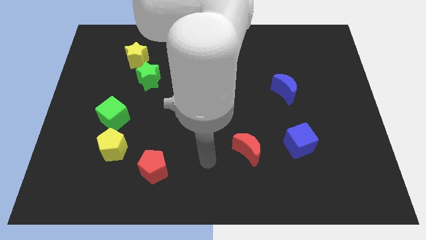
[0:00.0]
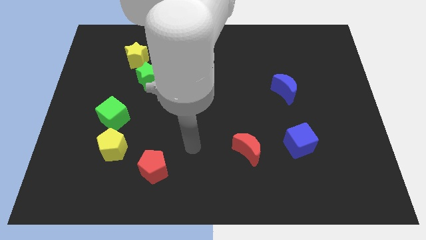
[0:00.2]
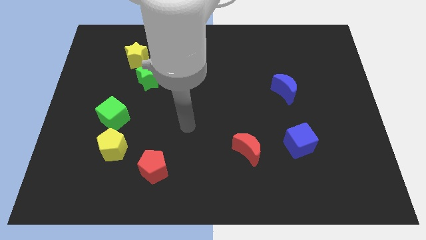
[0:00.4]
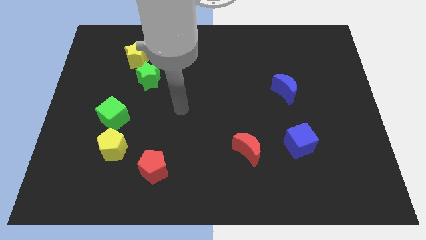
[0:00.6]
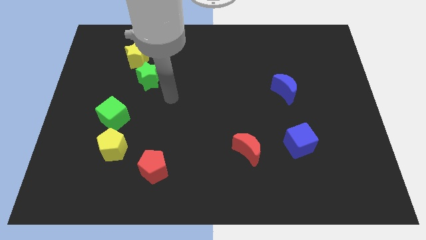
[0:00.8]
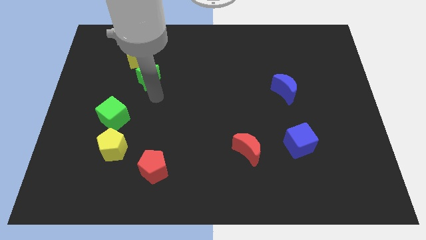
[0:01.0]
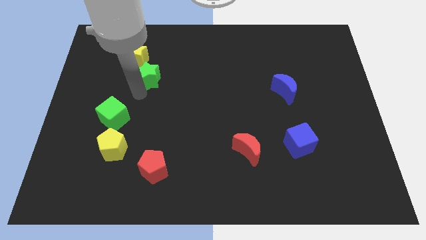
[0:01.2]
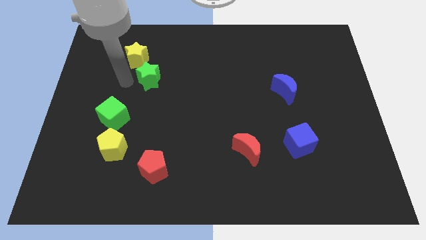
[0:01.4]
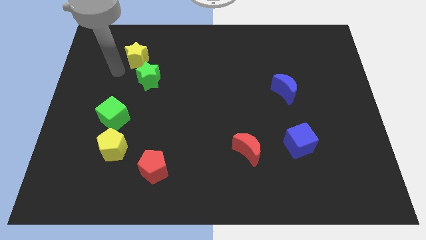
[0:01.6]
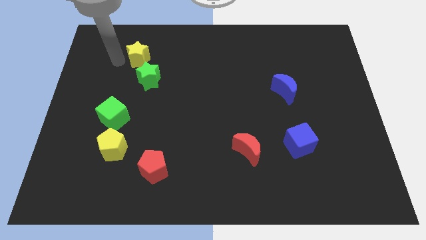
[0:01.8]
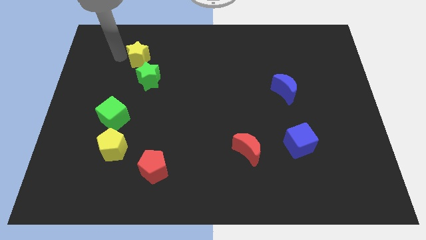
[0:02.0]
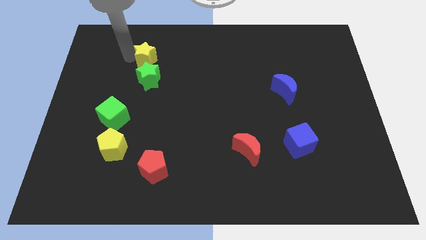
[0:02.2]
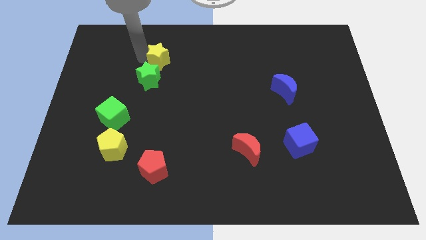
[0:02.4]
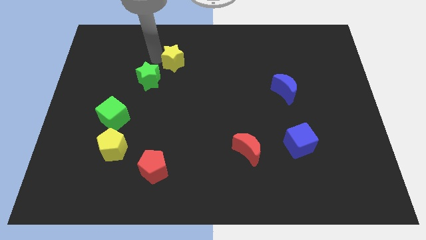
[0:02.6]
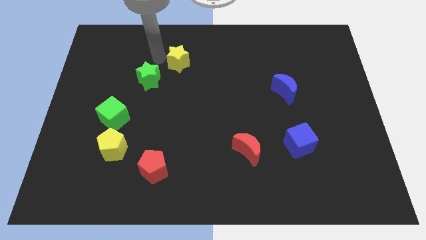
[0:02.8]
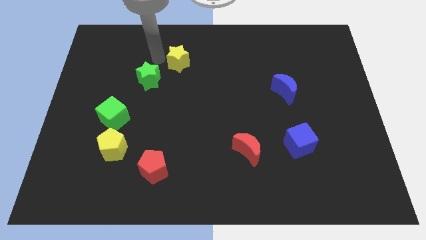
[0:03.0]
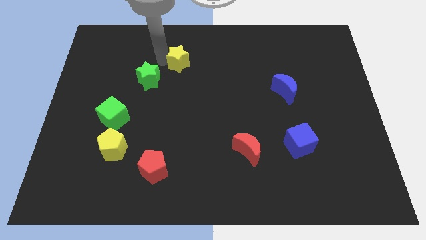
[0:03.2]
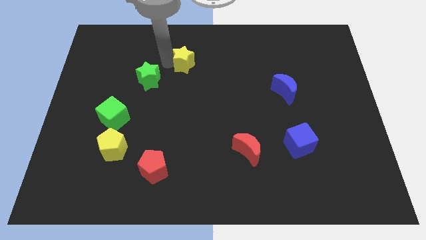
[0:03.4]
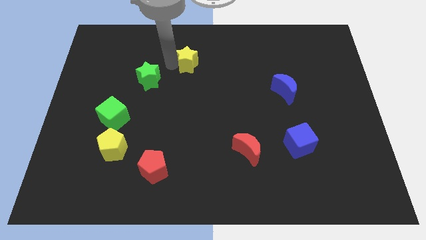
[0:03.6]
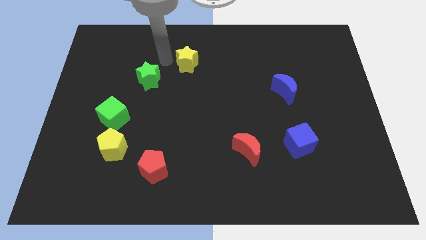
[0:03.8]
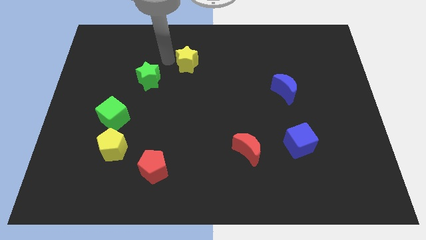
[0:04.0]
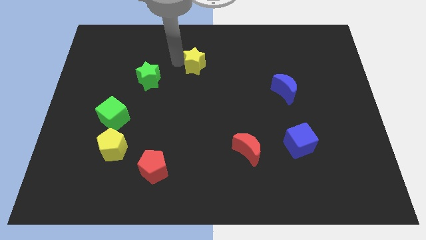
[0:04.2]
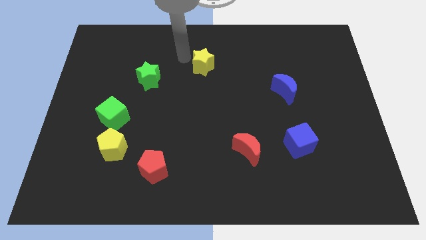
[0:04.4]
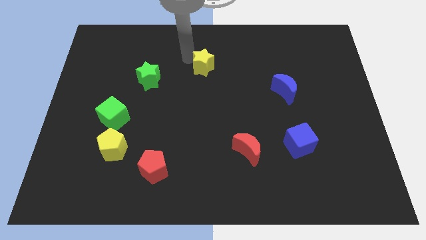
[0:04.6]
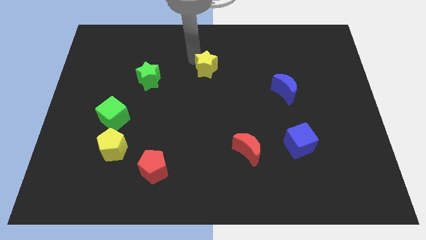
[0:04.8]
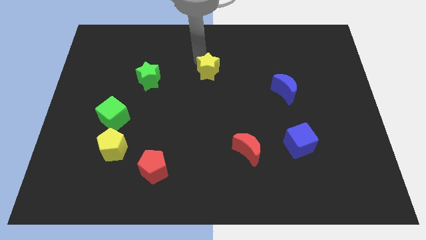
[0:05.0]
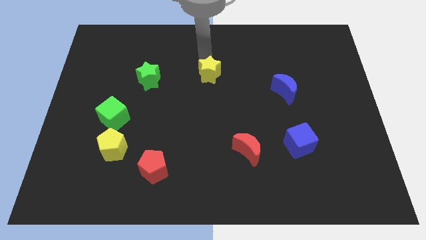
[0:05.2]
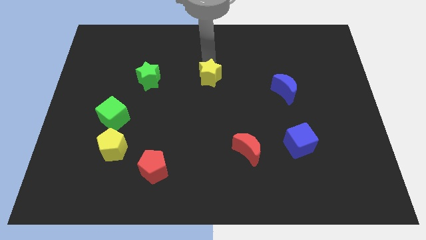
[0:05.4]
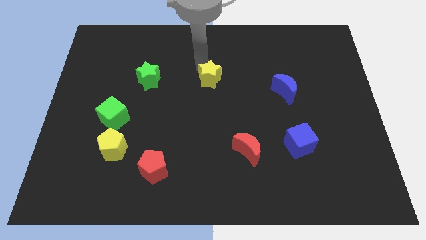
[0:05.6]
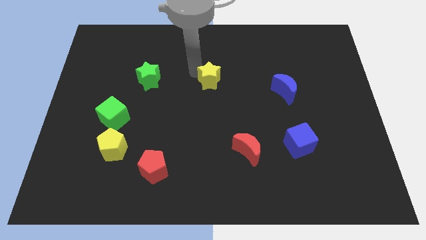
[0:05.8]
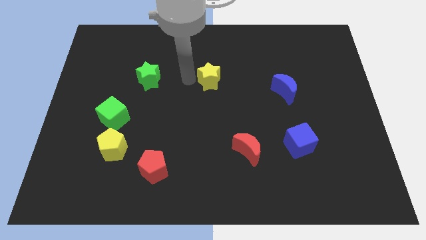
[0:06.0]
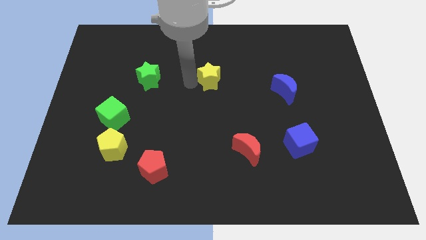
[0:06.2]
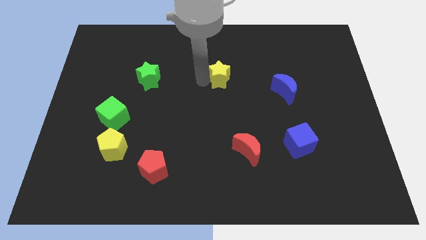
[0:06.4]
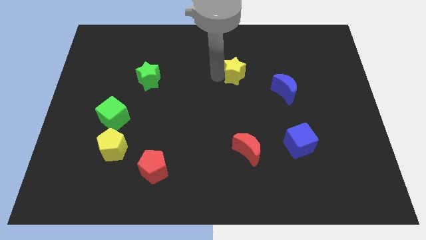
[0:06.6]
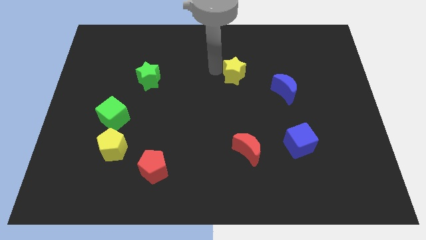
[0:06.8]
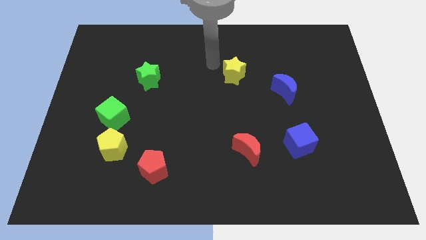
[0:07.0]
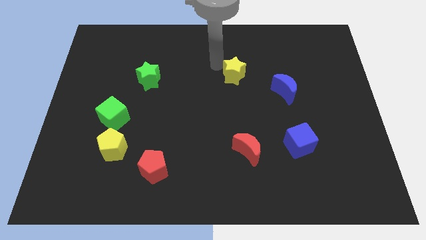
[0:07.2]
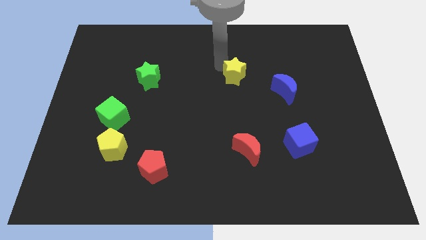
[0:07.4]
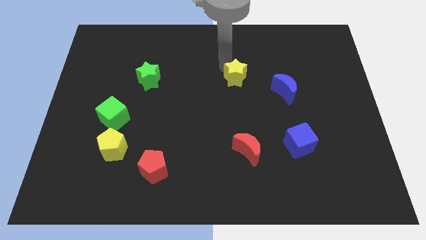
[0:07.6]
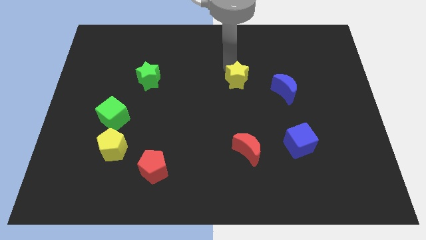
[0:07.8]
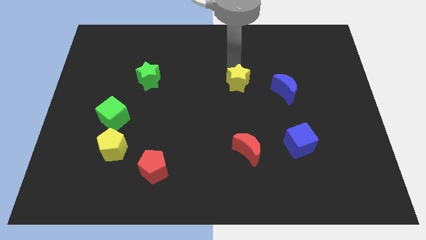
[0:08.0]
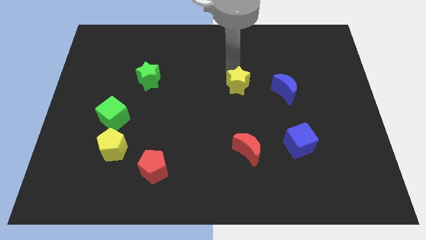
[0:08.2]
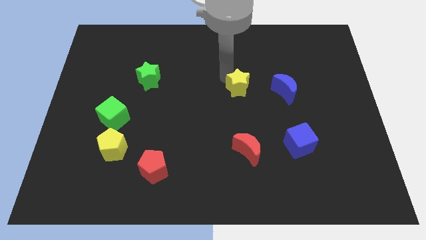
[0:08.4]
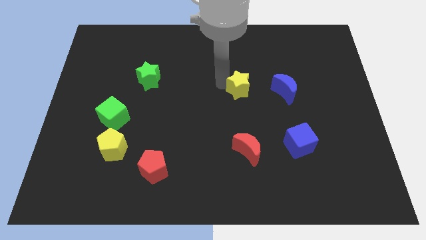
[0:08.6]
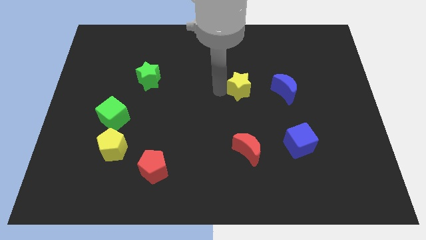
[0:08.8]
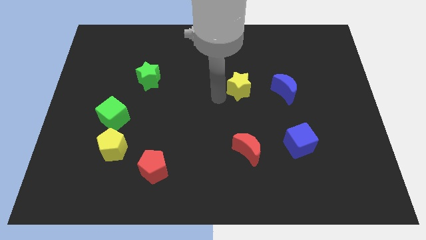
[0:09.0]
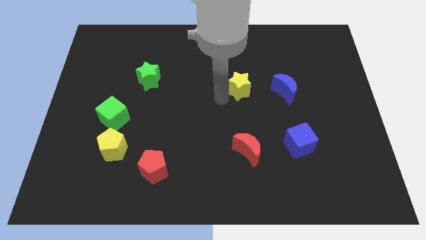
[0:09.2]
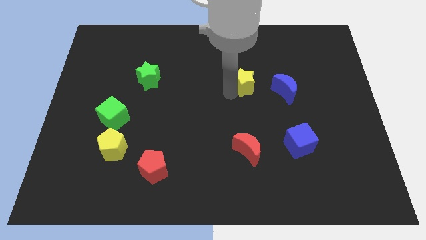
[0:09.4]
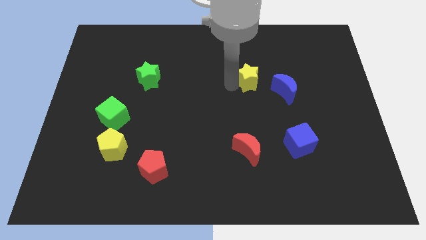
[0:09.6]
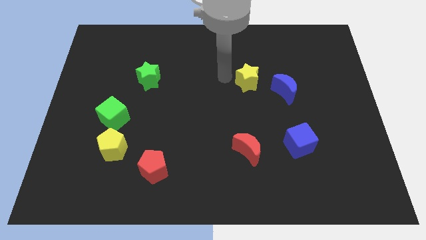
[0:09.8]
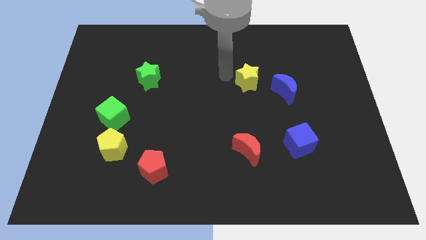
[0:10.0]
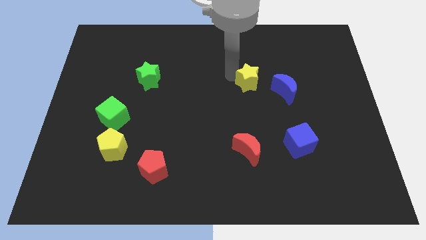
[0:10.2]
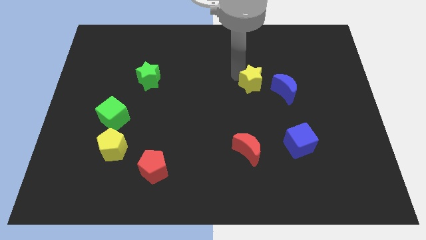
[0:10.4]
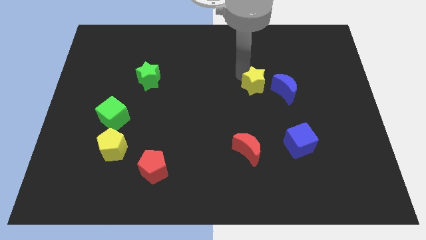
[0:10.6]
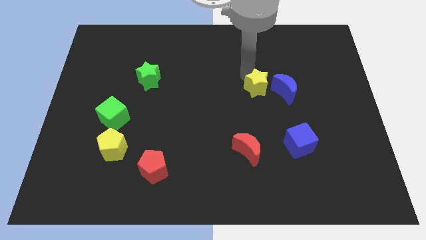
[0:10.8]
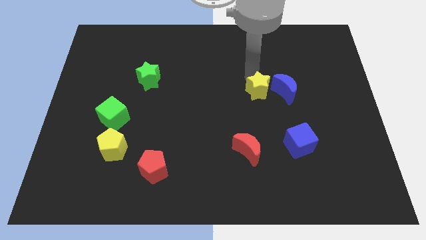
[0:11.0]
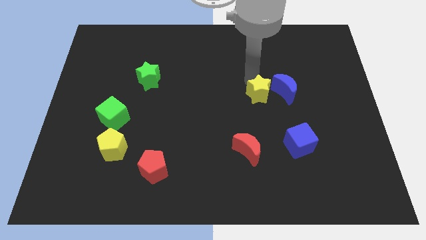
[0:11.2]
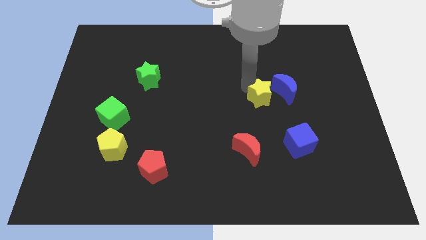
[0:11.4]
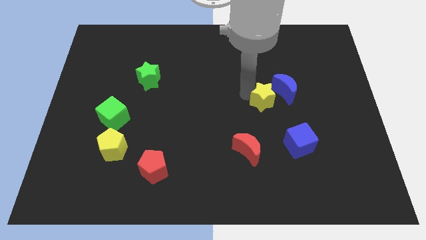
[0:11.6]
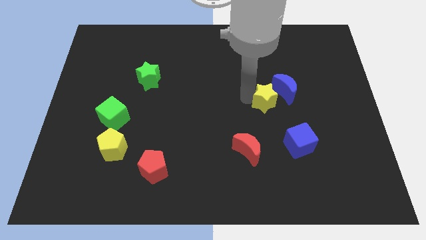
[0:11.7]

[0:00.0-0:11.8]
move the yellow star next to the blue moon

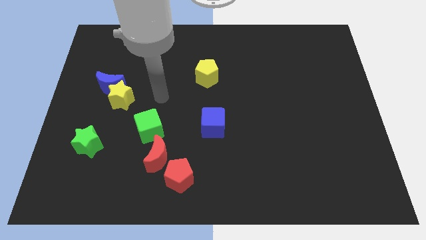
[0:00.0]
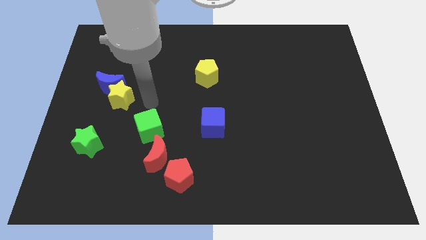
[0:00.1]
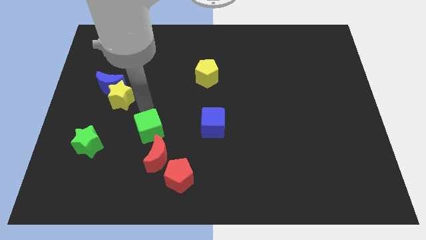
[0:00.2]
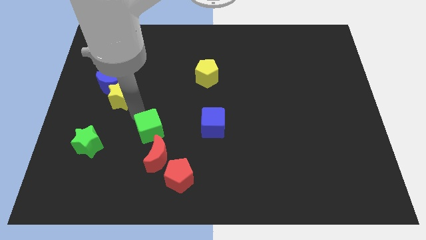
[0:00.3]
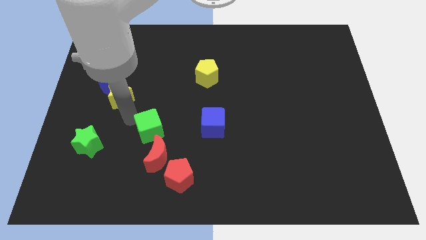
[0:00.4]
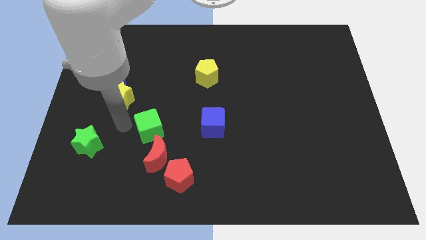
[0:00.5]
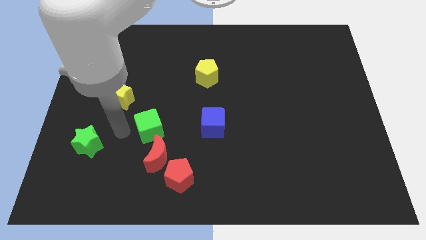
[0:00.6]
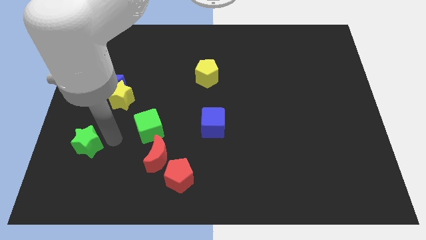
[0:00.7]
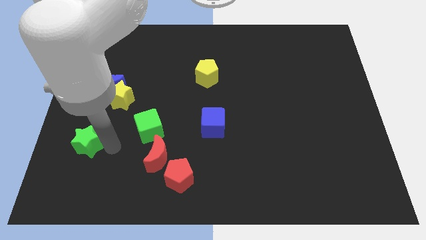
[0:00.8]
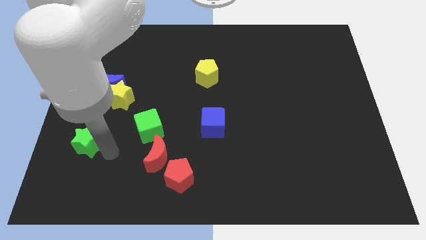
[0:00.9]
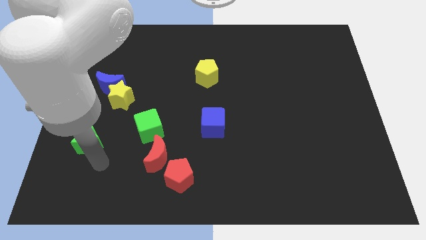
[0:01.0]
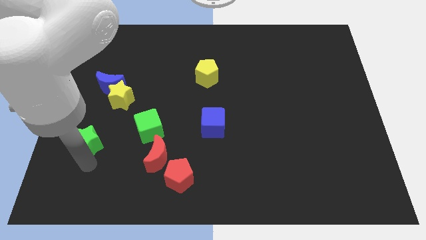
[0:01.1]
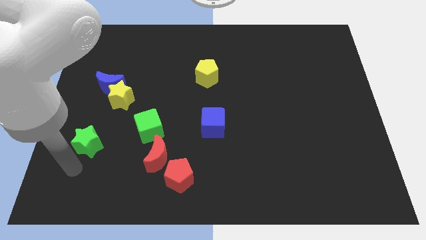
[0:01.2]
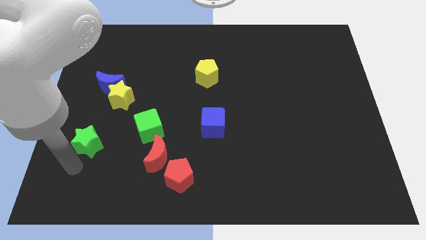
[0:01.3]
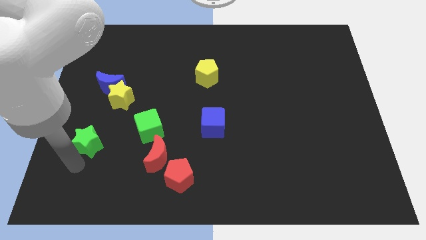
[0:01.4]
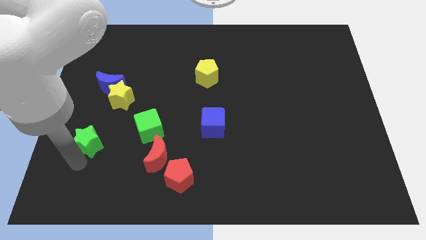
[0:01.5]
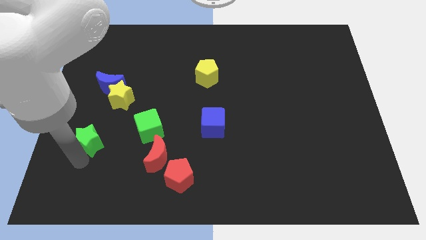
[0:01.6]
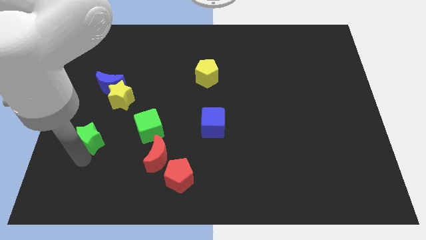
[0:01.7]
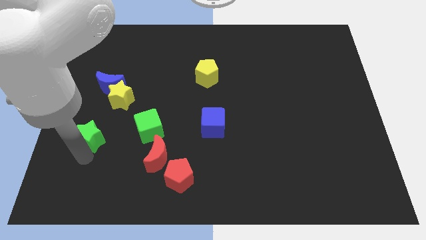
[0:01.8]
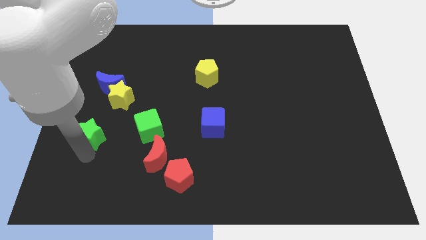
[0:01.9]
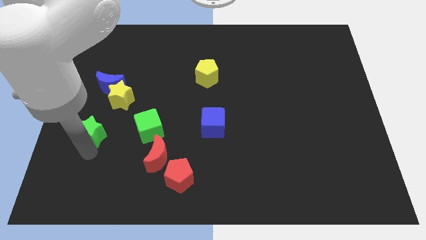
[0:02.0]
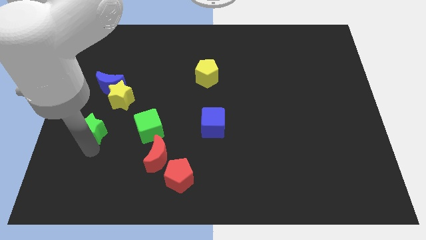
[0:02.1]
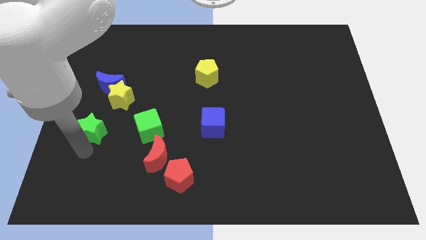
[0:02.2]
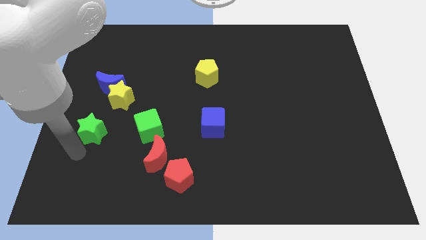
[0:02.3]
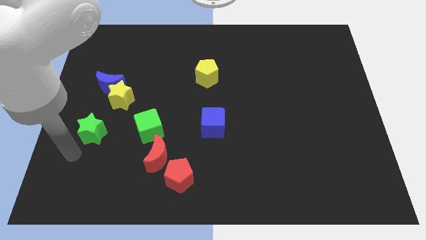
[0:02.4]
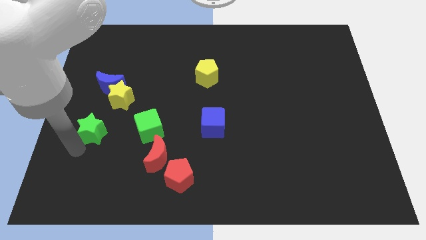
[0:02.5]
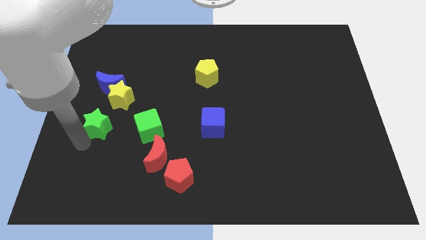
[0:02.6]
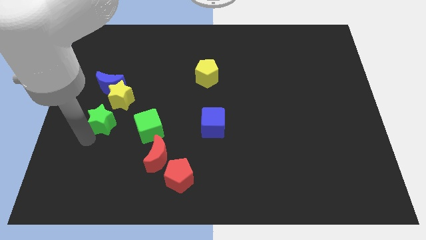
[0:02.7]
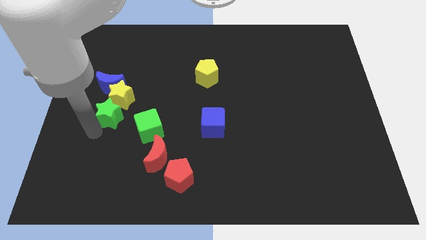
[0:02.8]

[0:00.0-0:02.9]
move the green star close to the yellow star
